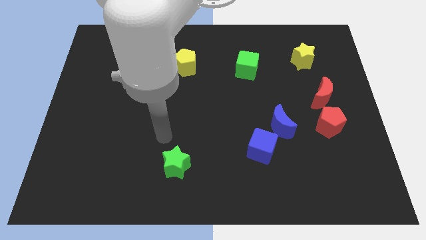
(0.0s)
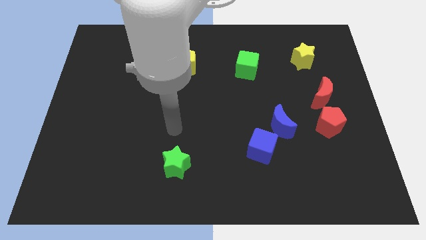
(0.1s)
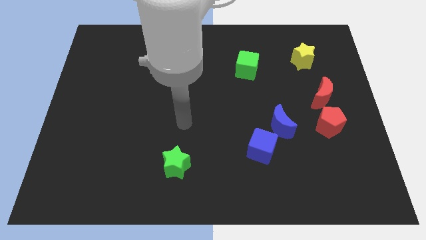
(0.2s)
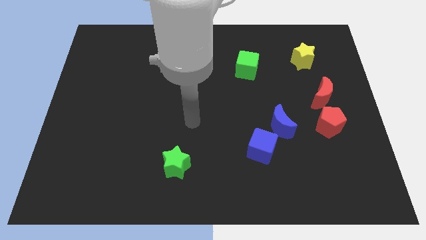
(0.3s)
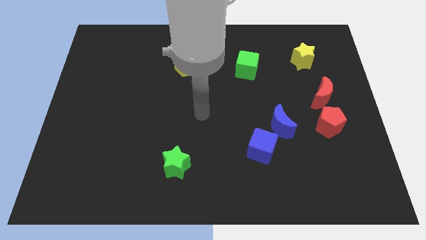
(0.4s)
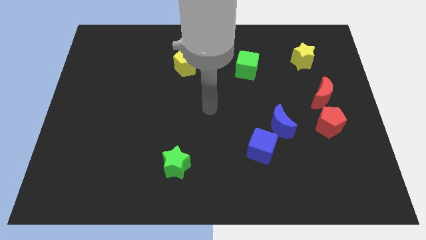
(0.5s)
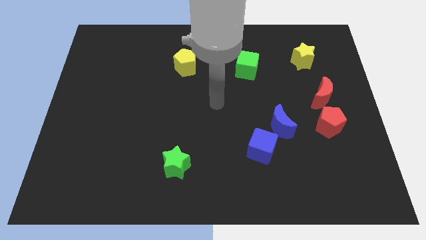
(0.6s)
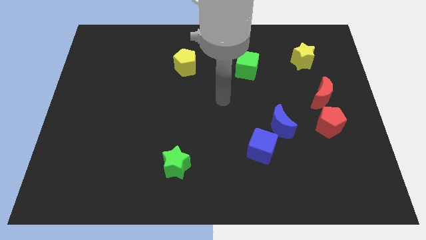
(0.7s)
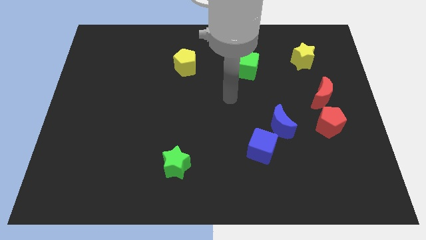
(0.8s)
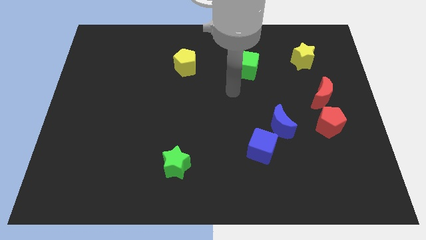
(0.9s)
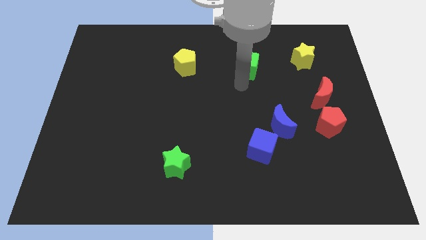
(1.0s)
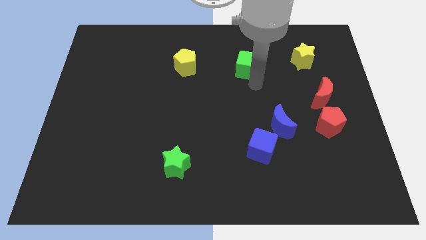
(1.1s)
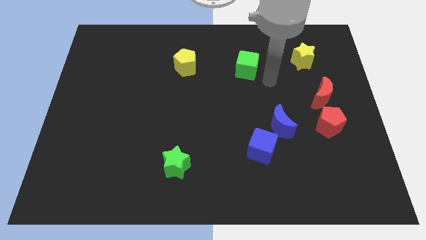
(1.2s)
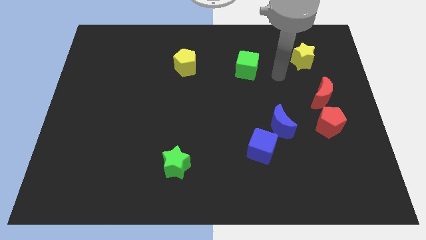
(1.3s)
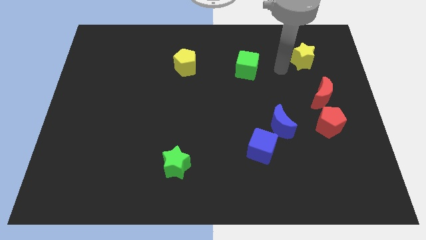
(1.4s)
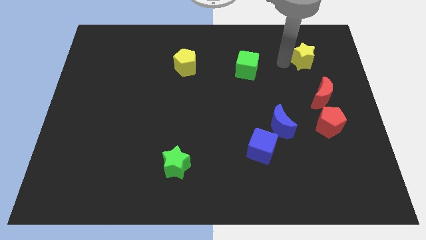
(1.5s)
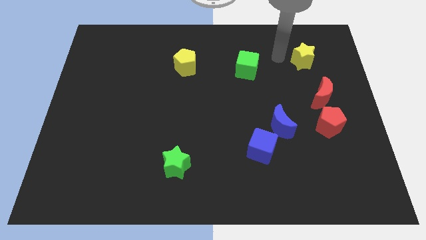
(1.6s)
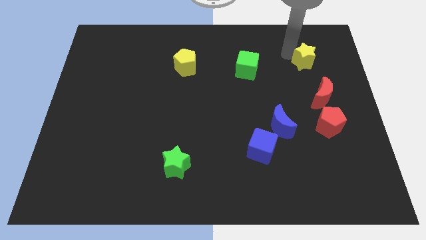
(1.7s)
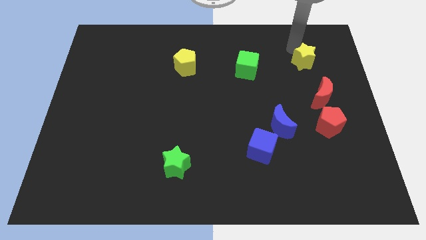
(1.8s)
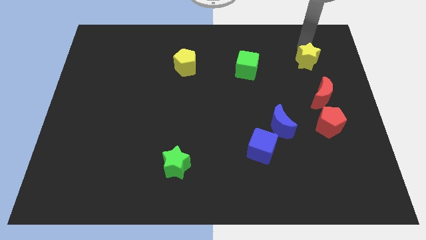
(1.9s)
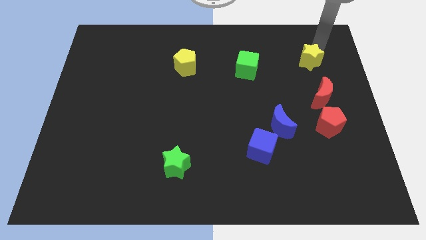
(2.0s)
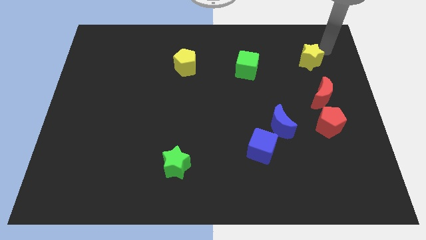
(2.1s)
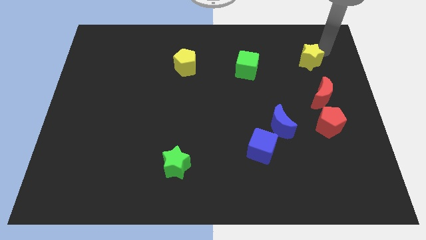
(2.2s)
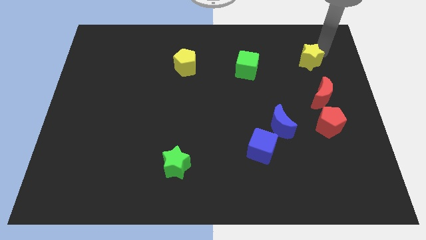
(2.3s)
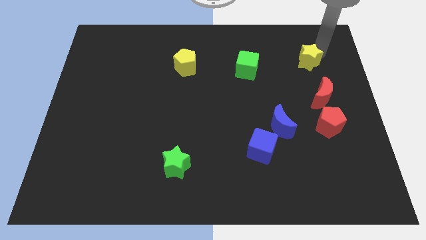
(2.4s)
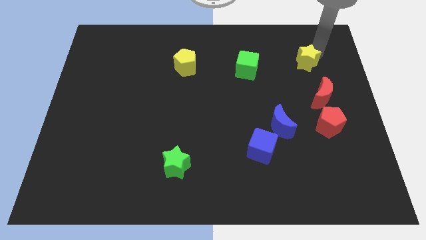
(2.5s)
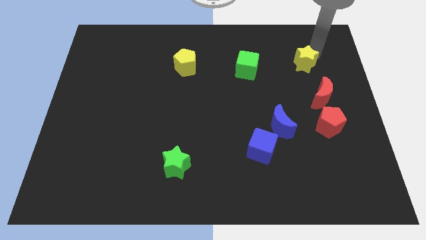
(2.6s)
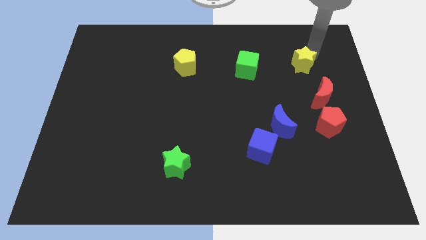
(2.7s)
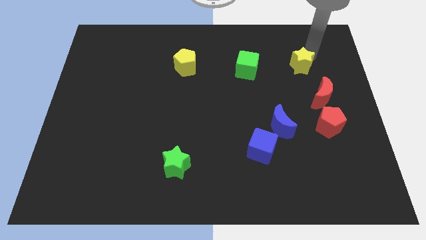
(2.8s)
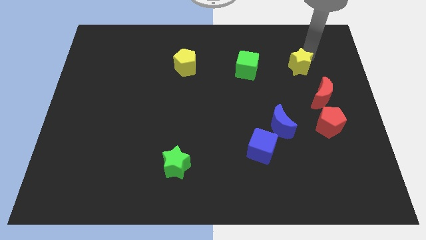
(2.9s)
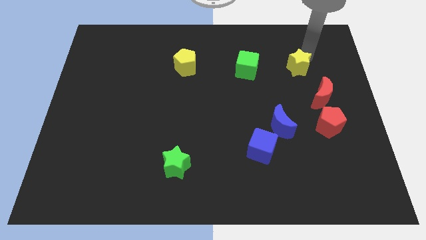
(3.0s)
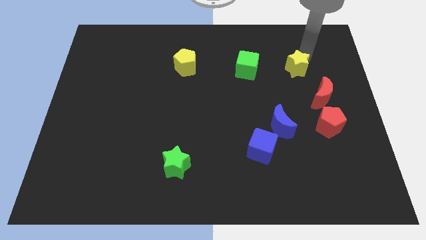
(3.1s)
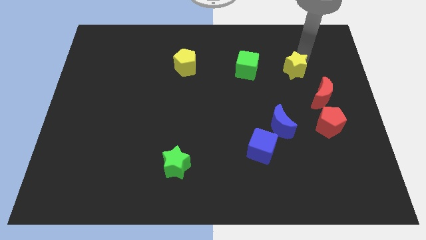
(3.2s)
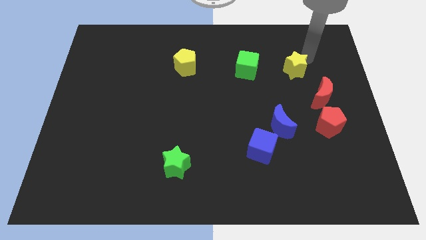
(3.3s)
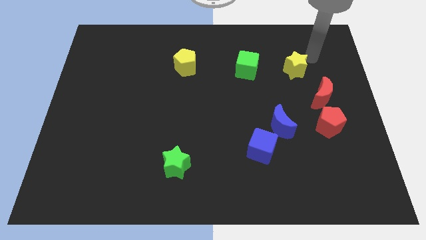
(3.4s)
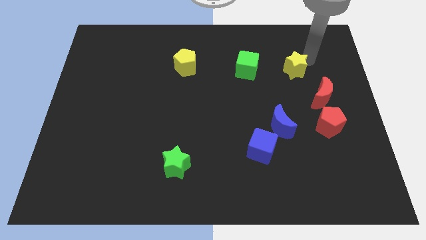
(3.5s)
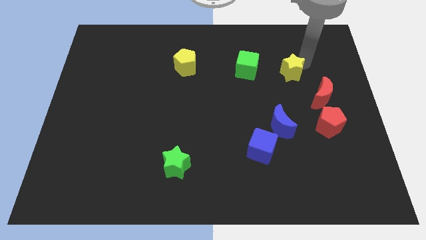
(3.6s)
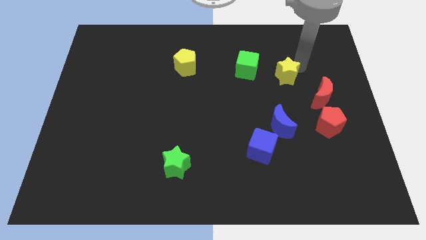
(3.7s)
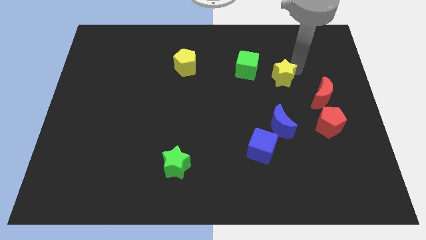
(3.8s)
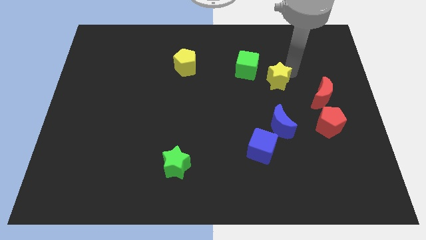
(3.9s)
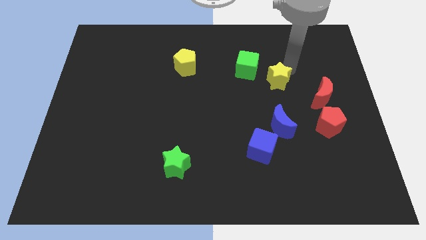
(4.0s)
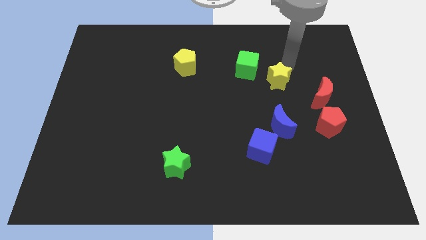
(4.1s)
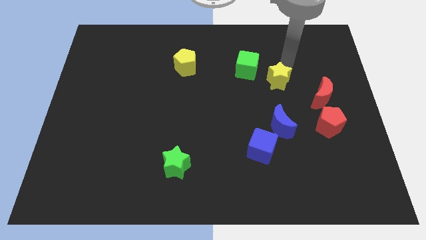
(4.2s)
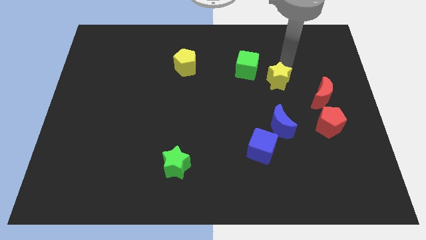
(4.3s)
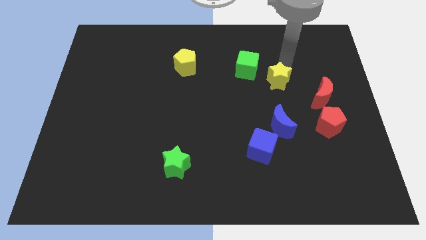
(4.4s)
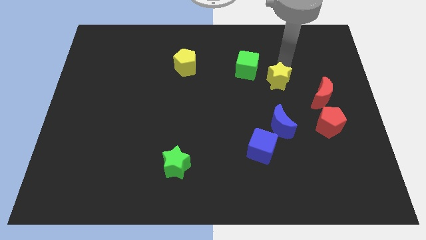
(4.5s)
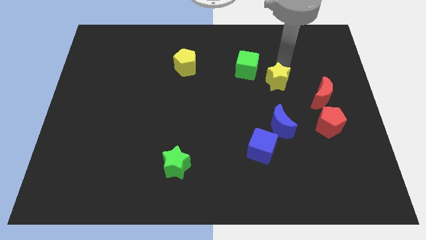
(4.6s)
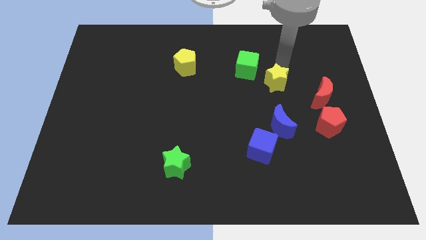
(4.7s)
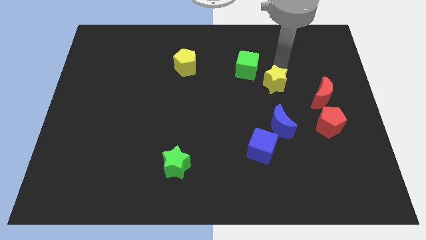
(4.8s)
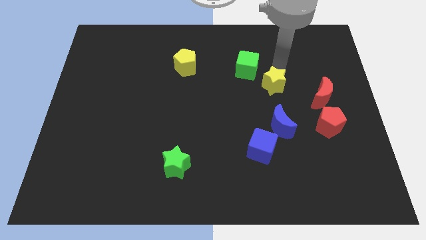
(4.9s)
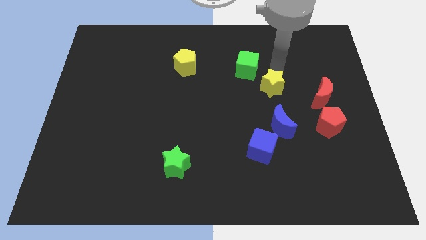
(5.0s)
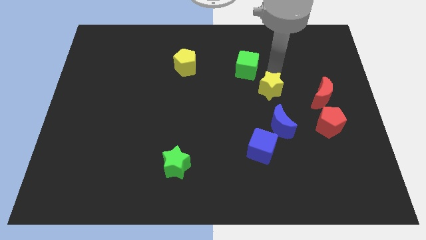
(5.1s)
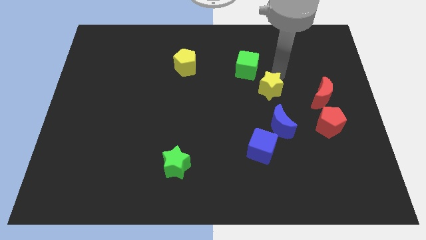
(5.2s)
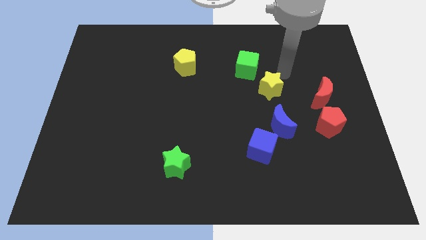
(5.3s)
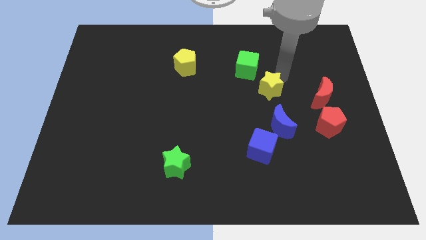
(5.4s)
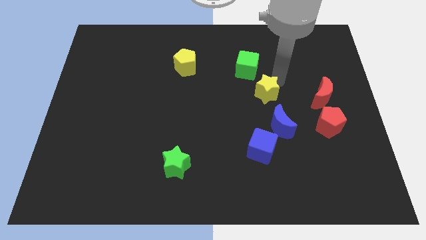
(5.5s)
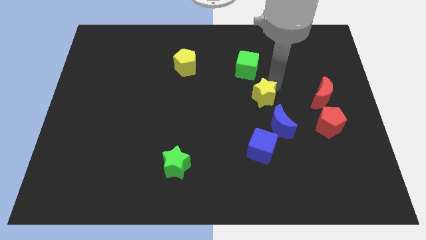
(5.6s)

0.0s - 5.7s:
slide the yellow star to the top left of the blue moon

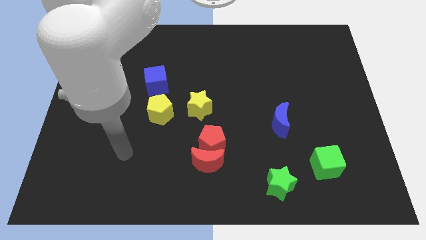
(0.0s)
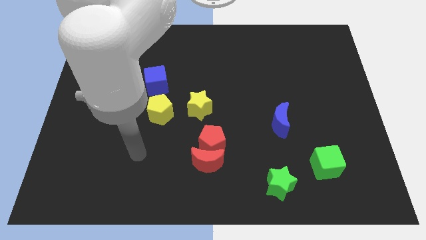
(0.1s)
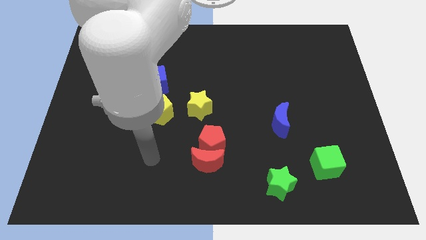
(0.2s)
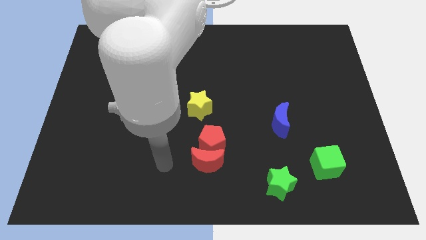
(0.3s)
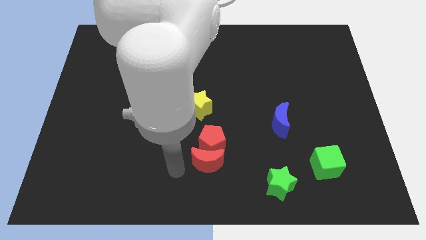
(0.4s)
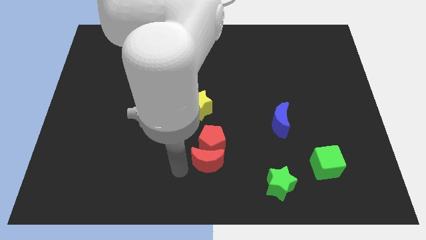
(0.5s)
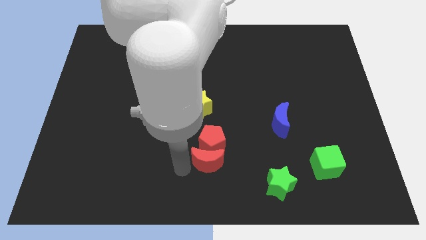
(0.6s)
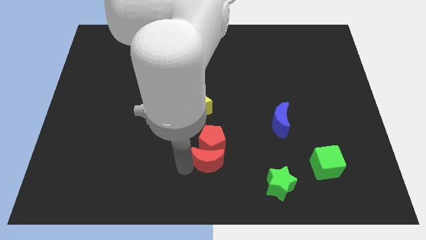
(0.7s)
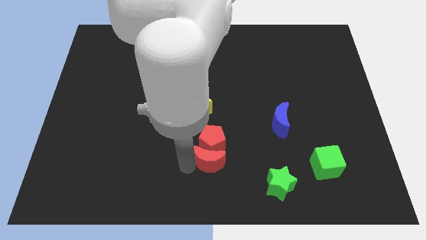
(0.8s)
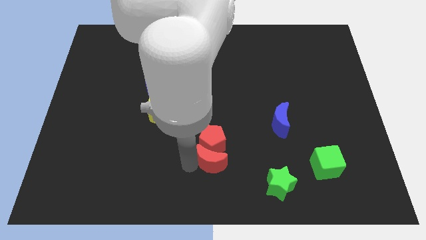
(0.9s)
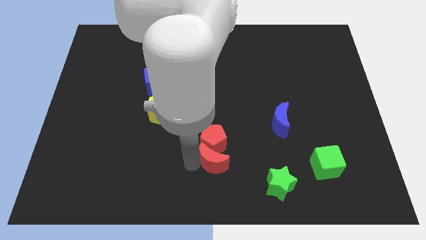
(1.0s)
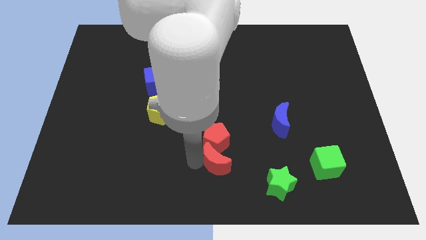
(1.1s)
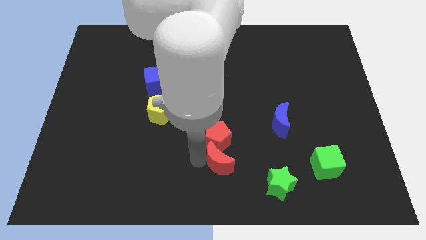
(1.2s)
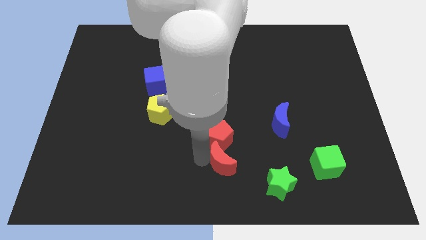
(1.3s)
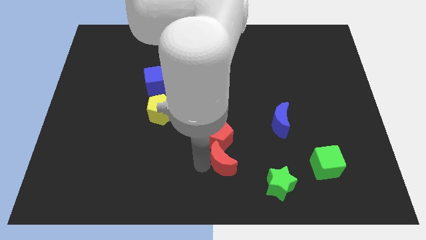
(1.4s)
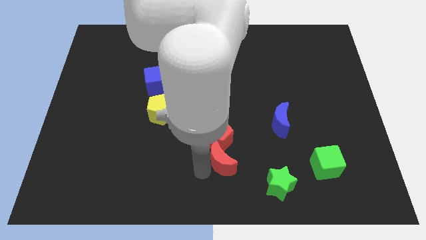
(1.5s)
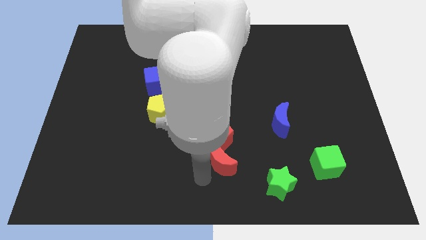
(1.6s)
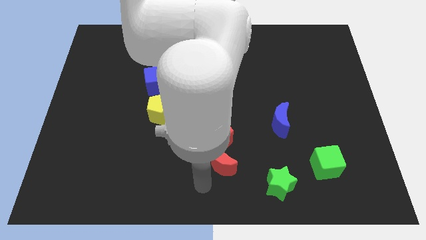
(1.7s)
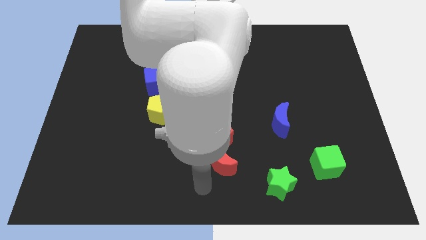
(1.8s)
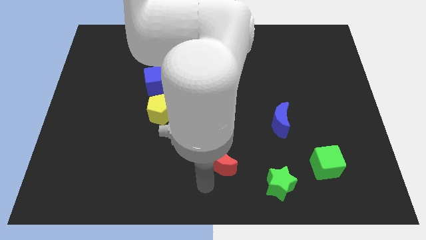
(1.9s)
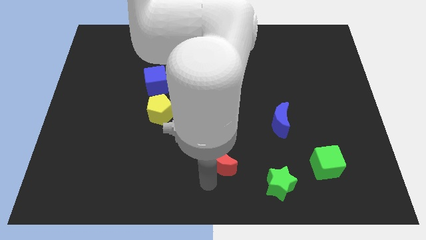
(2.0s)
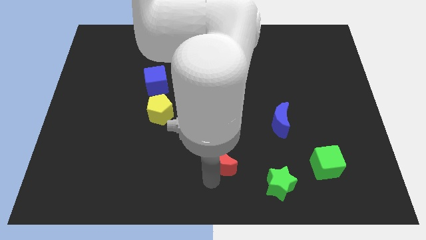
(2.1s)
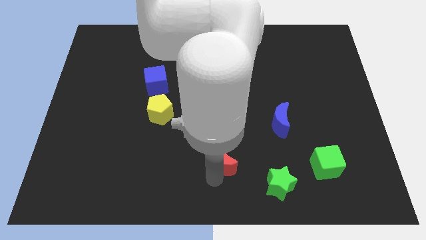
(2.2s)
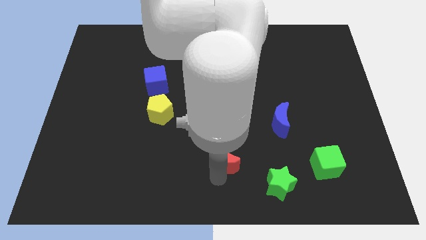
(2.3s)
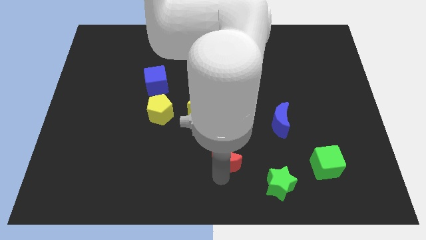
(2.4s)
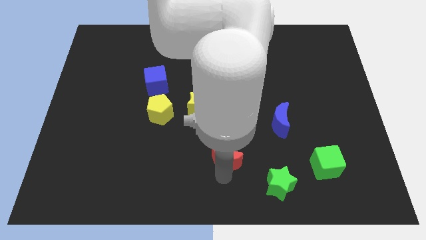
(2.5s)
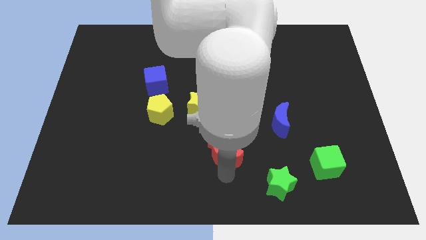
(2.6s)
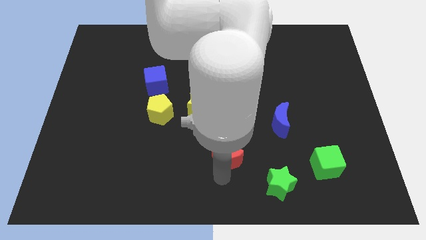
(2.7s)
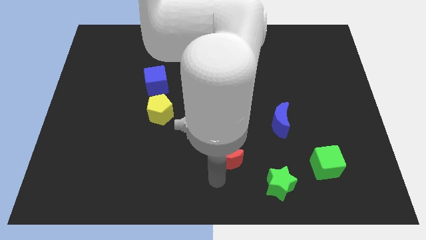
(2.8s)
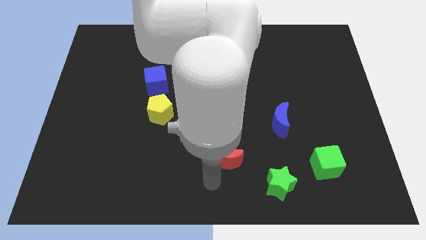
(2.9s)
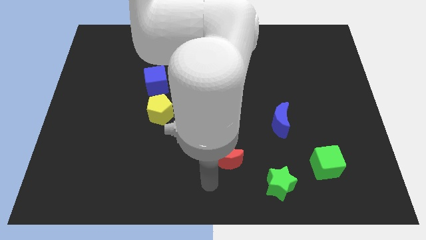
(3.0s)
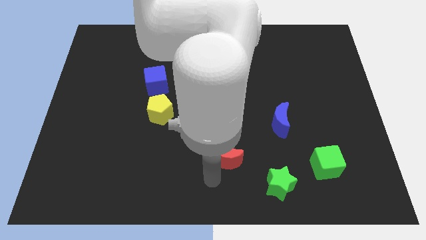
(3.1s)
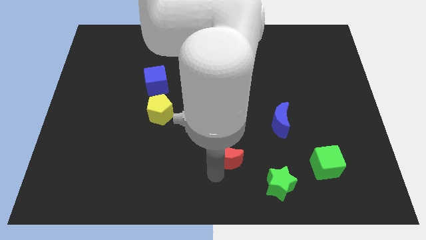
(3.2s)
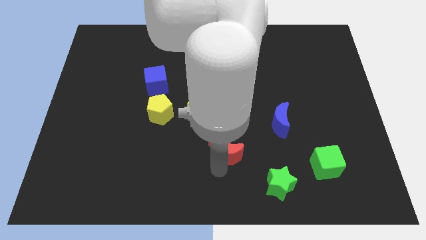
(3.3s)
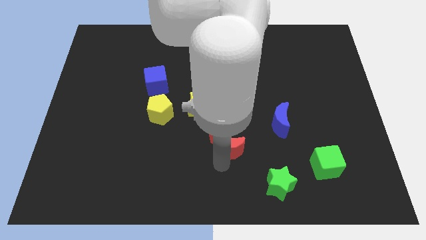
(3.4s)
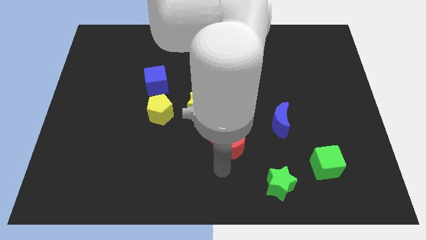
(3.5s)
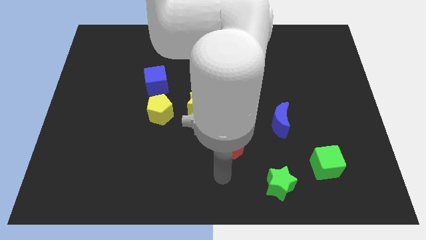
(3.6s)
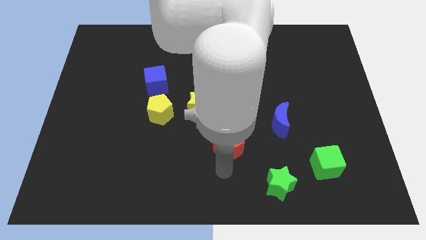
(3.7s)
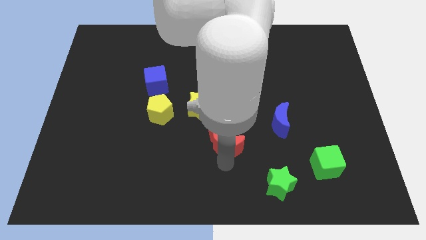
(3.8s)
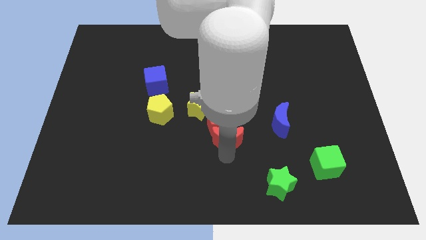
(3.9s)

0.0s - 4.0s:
move the red moon to the left of the blue moon
